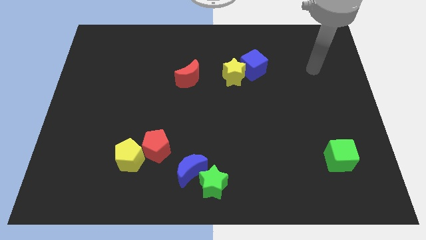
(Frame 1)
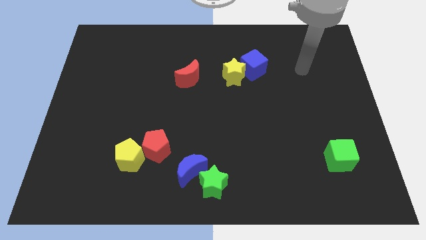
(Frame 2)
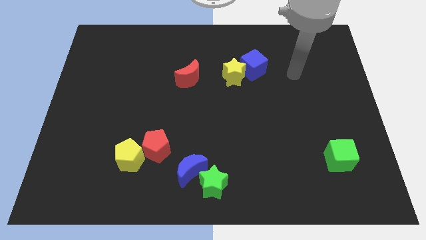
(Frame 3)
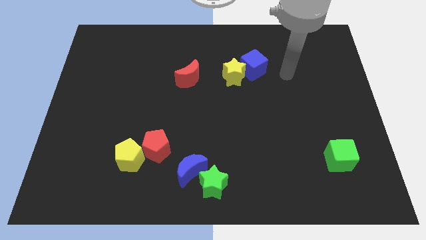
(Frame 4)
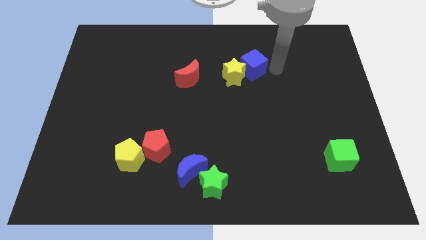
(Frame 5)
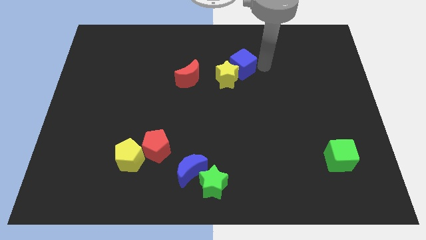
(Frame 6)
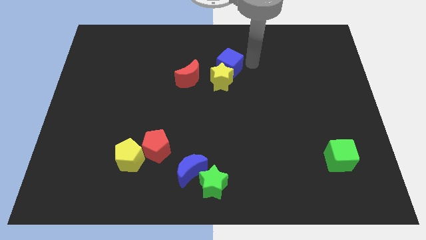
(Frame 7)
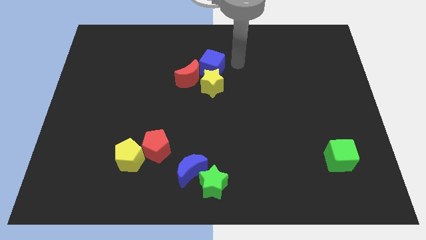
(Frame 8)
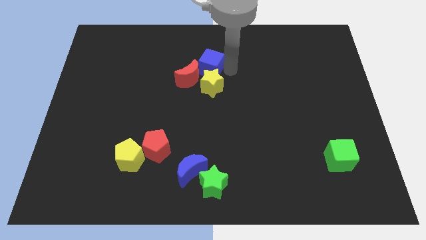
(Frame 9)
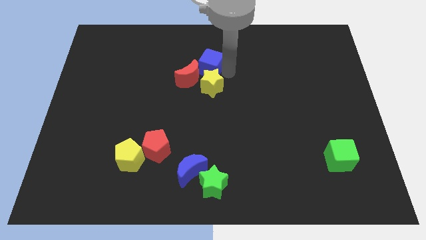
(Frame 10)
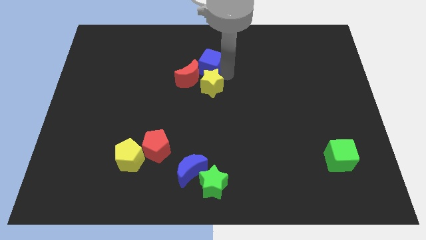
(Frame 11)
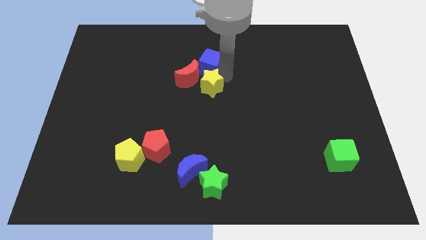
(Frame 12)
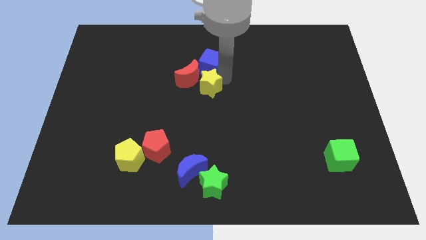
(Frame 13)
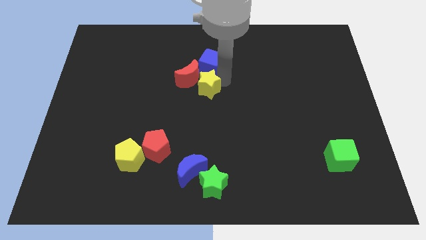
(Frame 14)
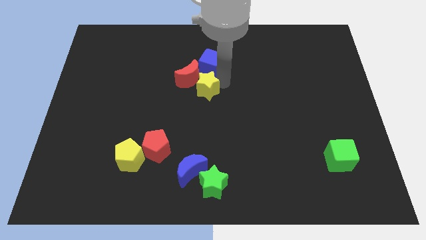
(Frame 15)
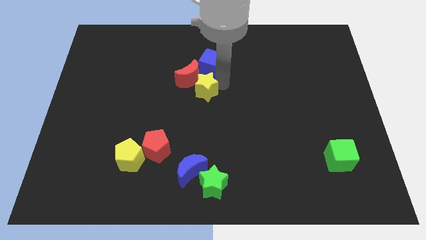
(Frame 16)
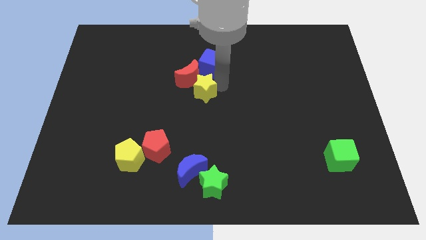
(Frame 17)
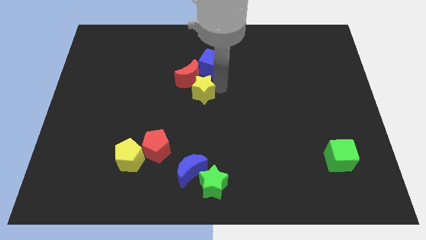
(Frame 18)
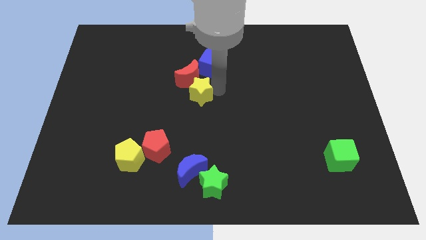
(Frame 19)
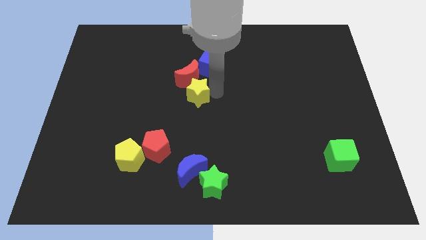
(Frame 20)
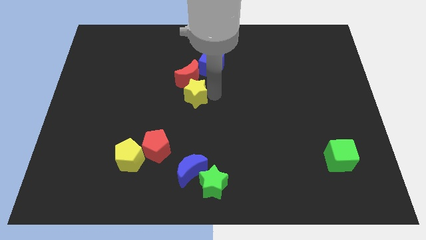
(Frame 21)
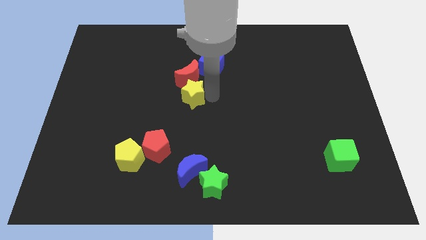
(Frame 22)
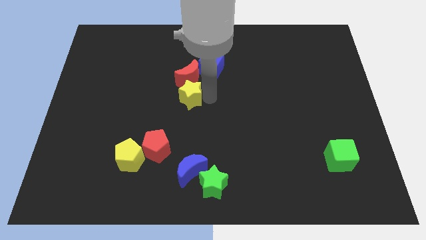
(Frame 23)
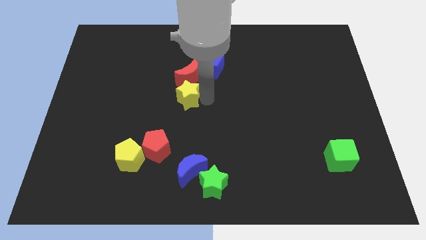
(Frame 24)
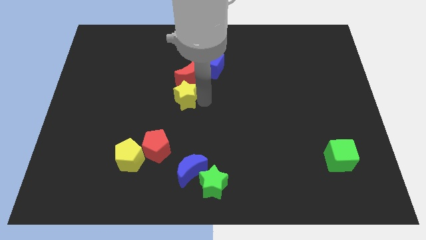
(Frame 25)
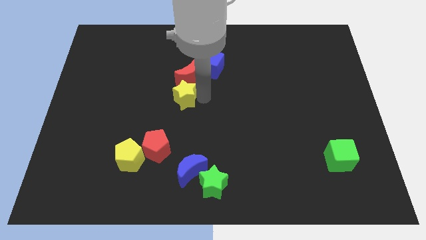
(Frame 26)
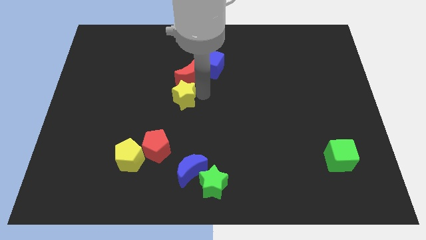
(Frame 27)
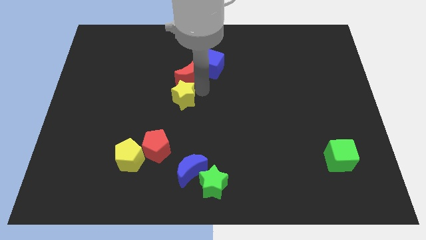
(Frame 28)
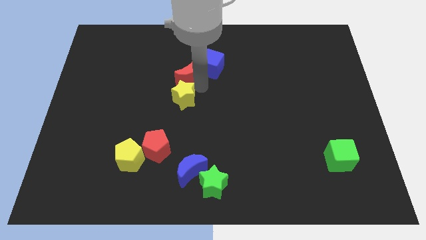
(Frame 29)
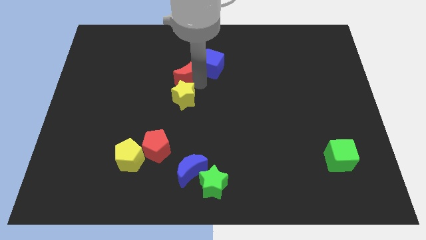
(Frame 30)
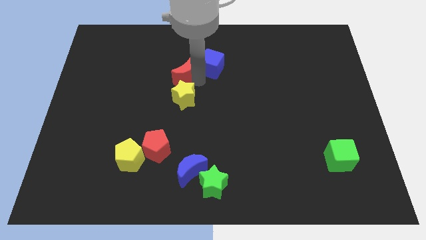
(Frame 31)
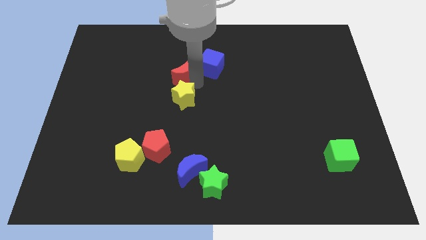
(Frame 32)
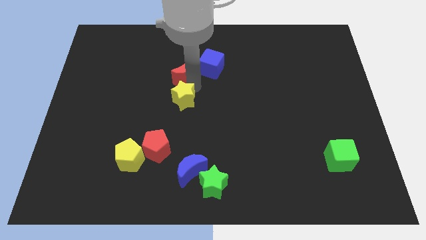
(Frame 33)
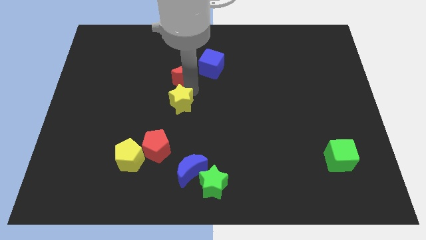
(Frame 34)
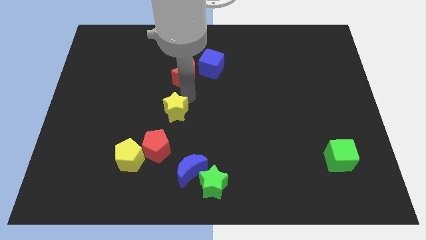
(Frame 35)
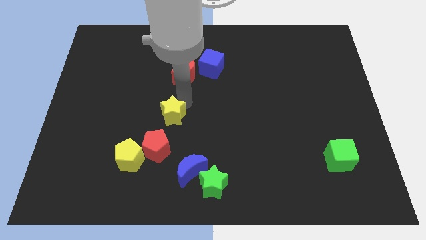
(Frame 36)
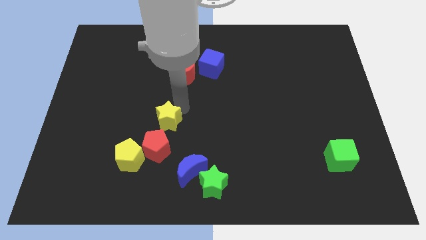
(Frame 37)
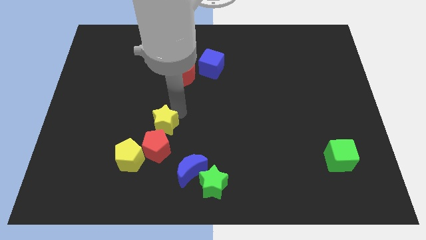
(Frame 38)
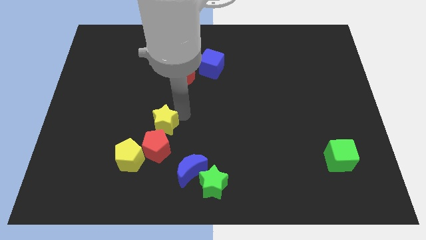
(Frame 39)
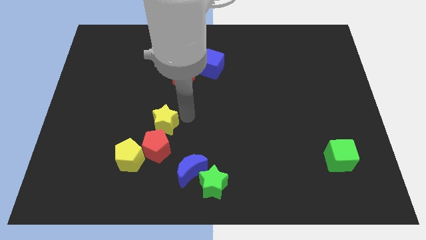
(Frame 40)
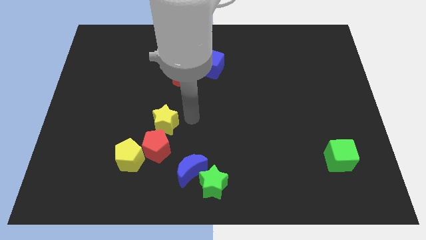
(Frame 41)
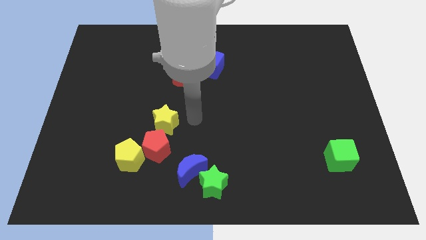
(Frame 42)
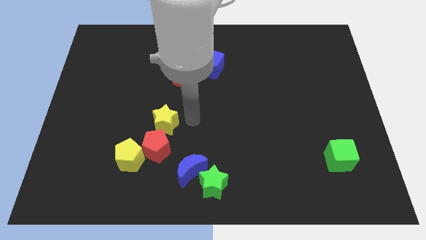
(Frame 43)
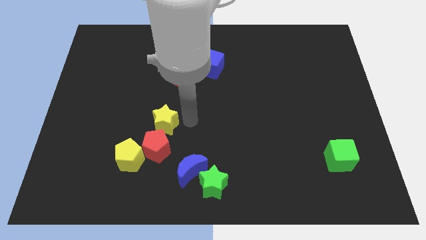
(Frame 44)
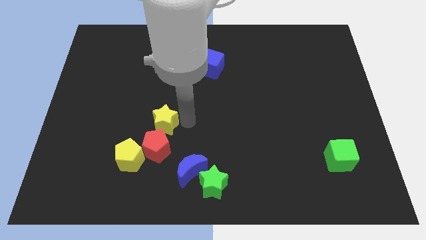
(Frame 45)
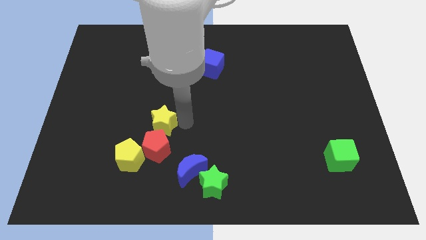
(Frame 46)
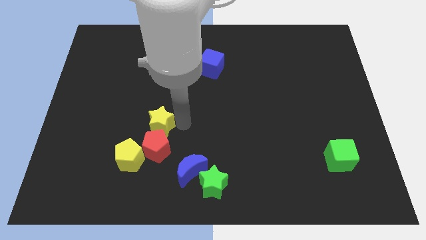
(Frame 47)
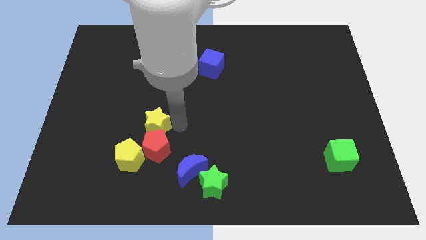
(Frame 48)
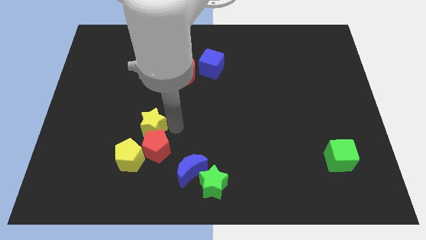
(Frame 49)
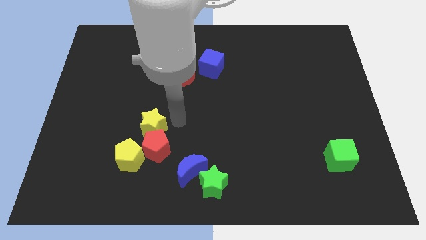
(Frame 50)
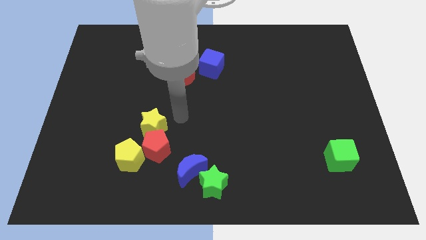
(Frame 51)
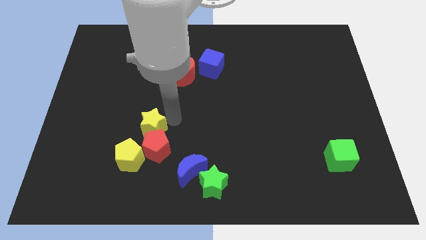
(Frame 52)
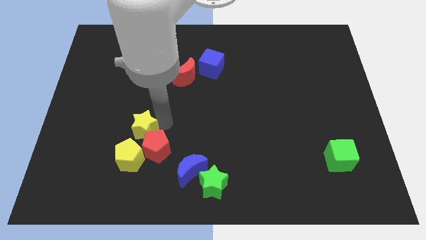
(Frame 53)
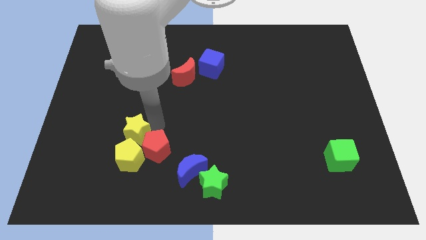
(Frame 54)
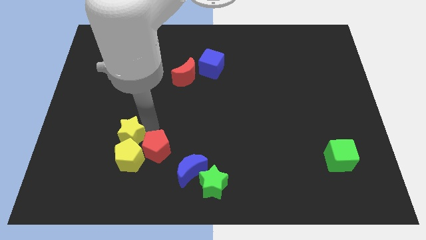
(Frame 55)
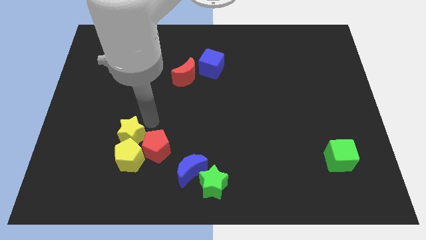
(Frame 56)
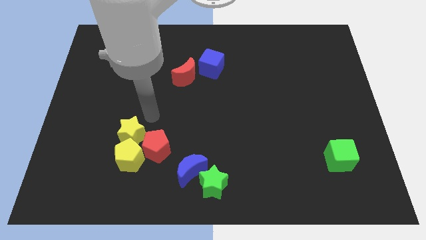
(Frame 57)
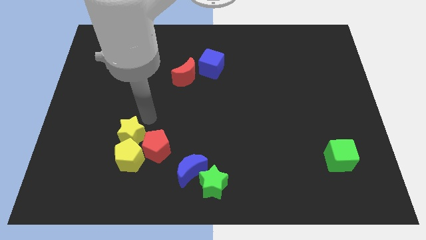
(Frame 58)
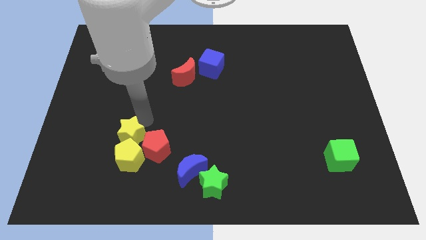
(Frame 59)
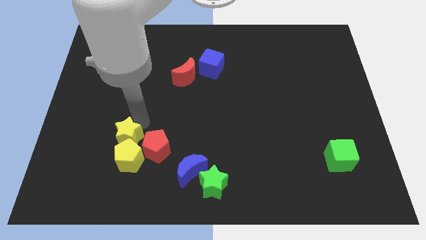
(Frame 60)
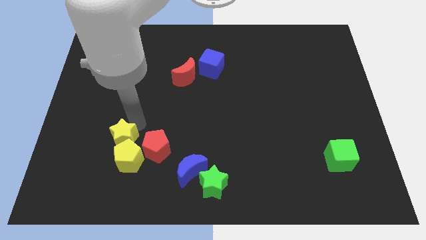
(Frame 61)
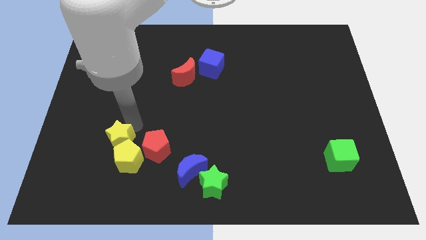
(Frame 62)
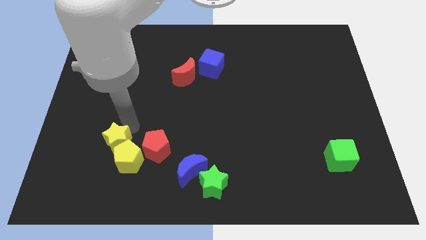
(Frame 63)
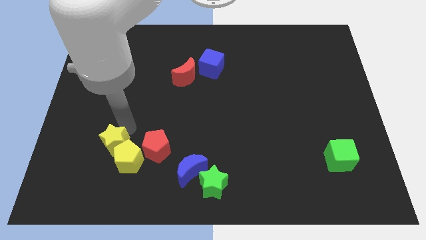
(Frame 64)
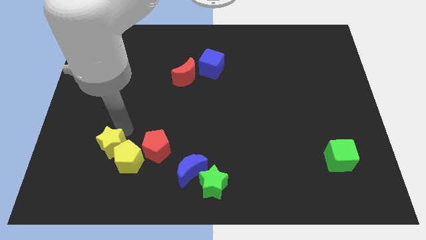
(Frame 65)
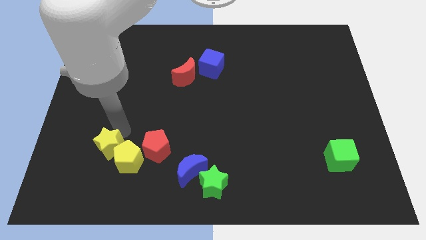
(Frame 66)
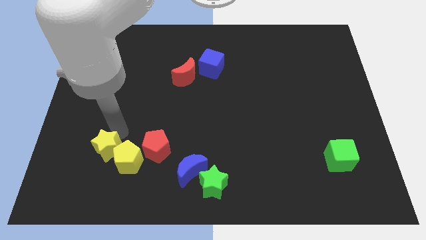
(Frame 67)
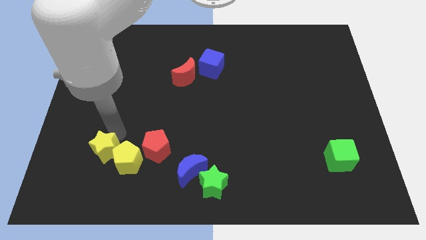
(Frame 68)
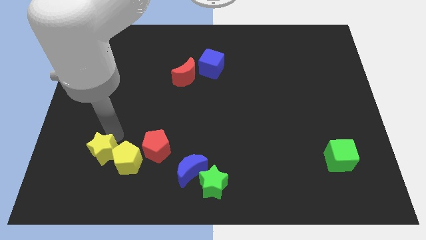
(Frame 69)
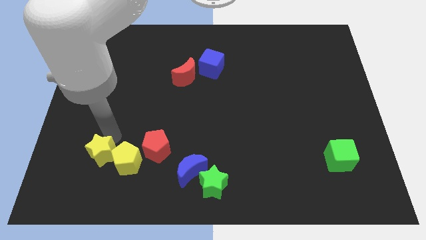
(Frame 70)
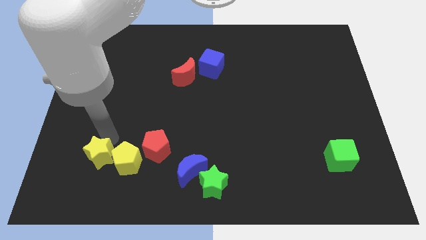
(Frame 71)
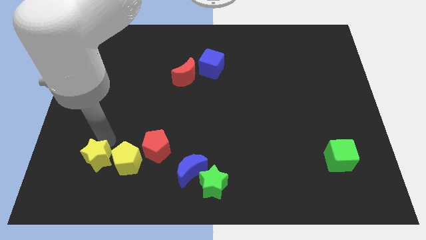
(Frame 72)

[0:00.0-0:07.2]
push the yellow star diagonally down and to the left of the yellow pentagon

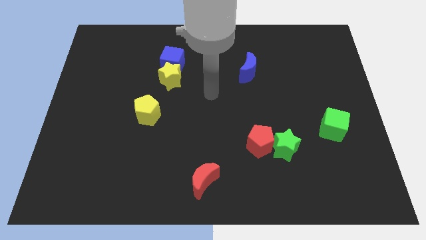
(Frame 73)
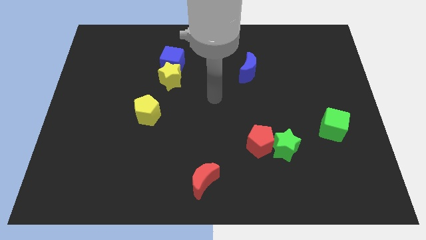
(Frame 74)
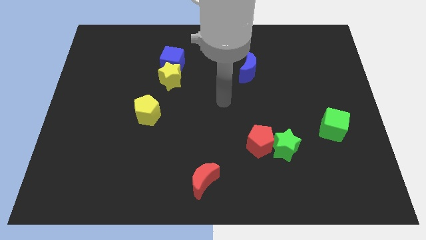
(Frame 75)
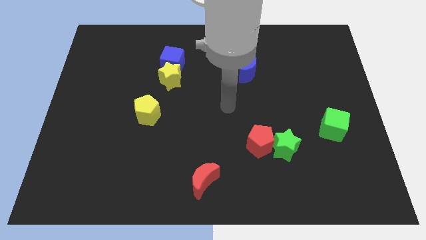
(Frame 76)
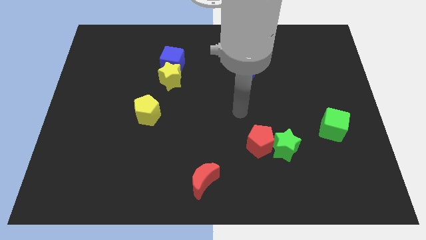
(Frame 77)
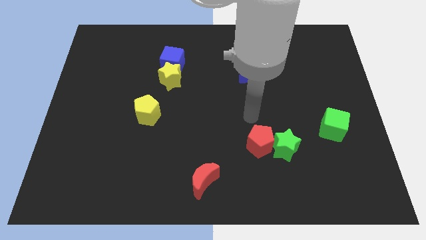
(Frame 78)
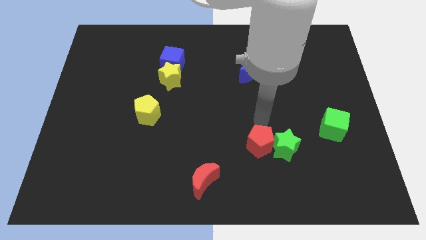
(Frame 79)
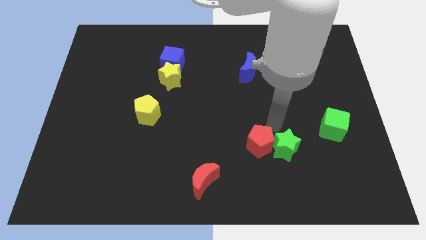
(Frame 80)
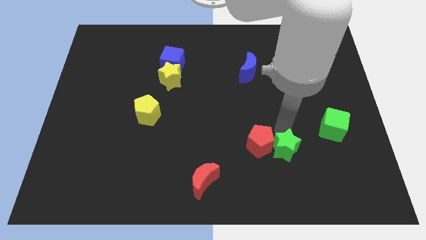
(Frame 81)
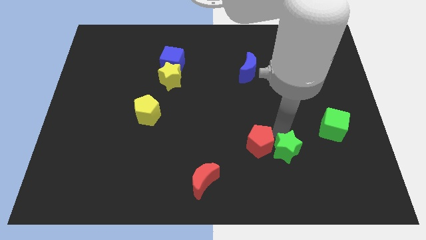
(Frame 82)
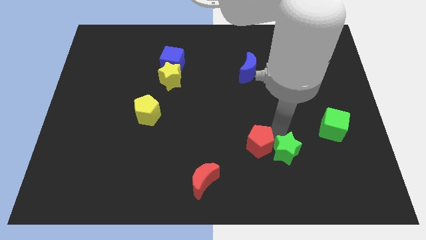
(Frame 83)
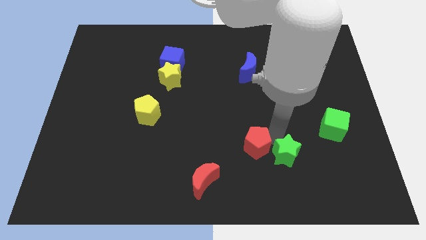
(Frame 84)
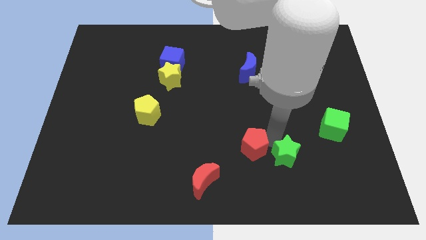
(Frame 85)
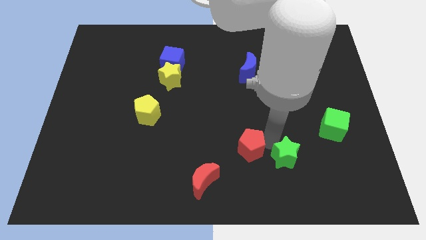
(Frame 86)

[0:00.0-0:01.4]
push the red pentagon diagonally up and to the right of the red moon
